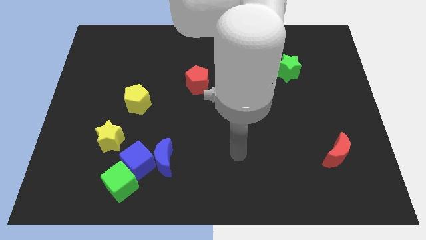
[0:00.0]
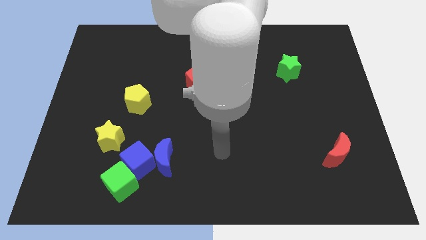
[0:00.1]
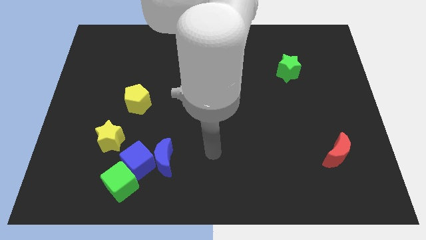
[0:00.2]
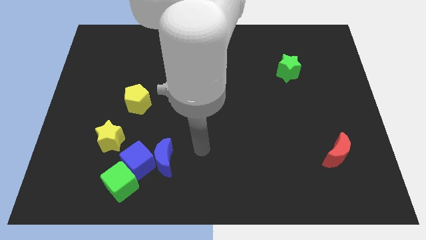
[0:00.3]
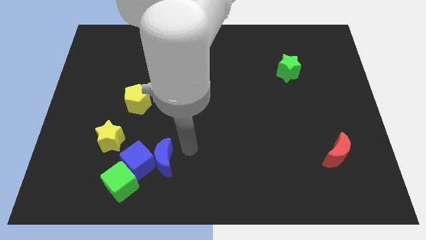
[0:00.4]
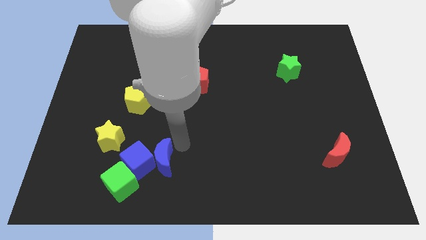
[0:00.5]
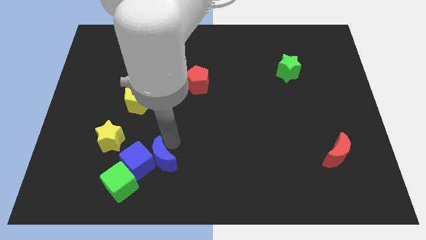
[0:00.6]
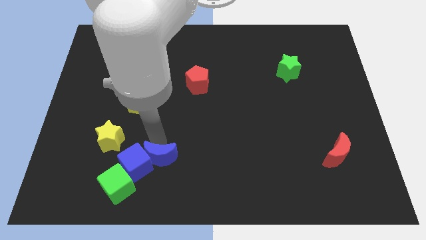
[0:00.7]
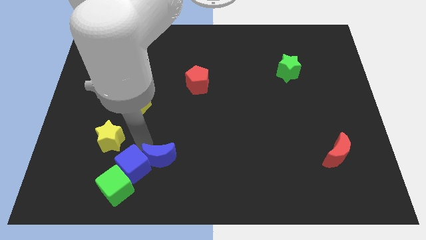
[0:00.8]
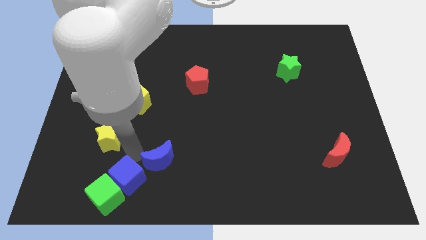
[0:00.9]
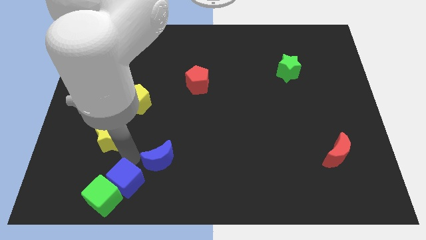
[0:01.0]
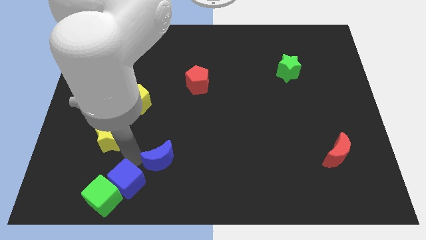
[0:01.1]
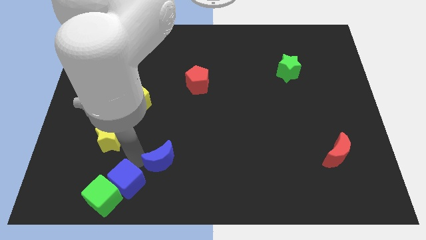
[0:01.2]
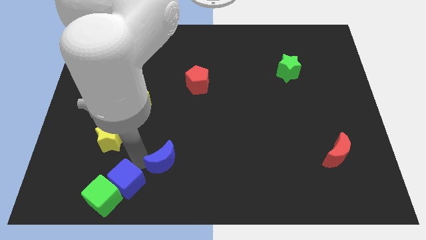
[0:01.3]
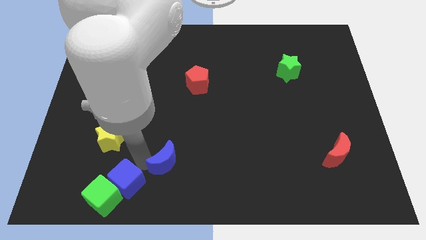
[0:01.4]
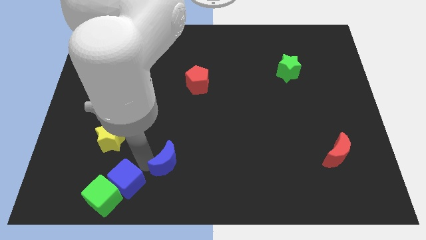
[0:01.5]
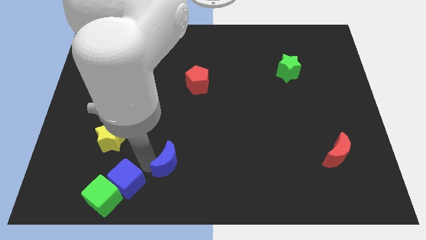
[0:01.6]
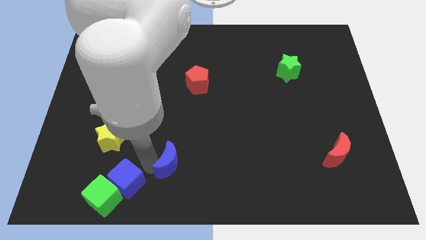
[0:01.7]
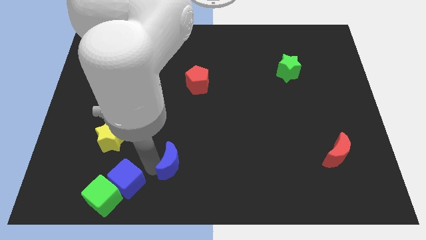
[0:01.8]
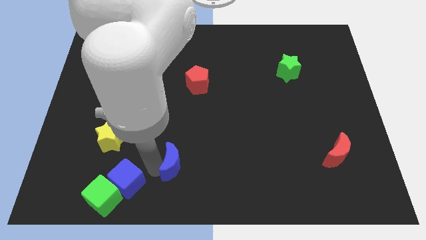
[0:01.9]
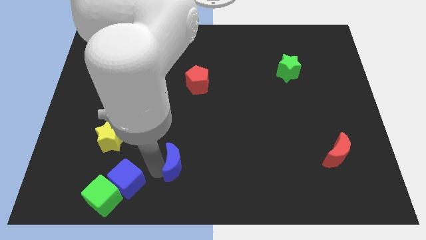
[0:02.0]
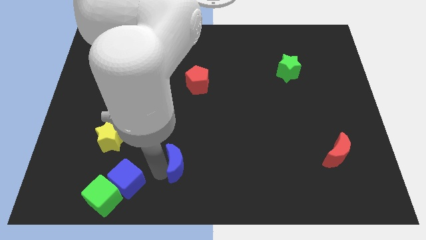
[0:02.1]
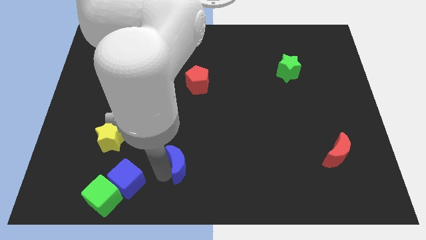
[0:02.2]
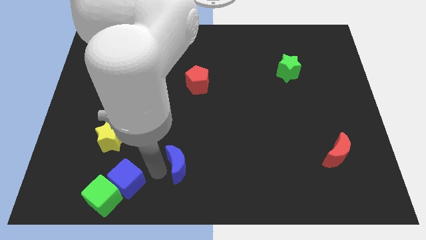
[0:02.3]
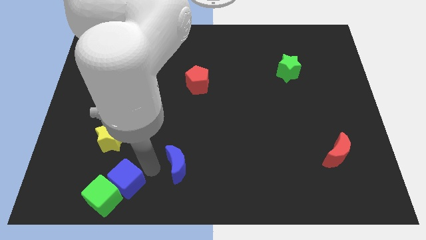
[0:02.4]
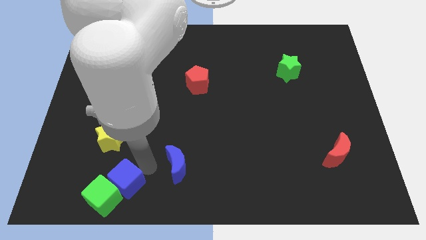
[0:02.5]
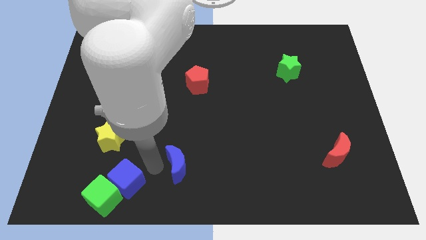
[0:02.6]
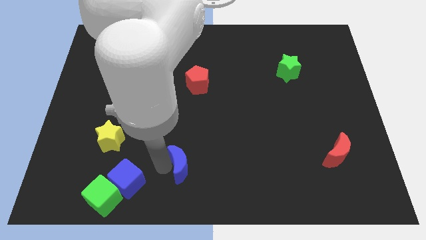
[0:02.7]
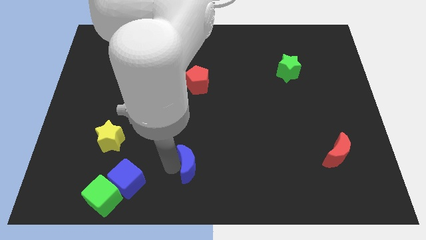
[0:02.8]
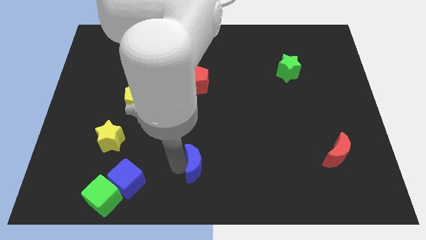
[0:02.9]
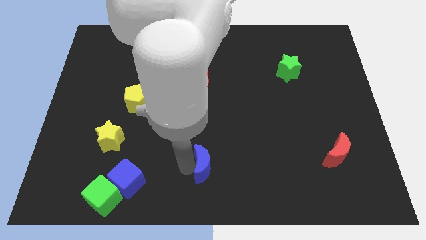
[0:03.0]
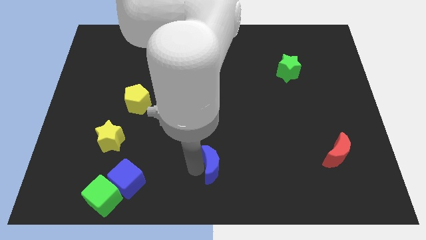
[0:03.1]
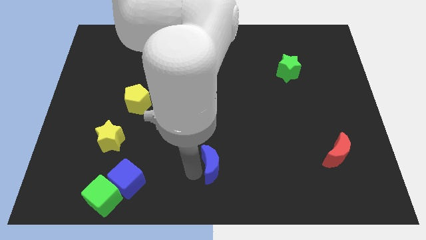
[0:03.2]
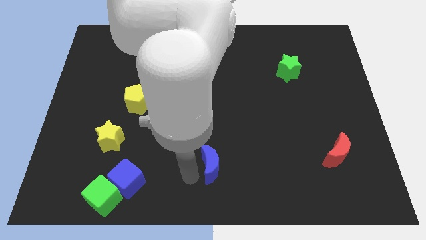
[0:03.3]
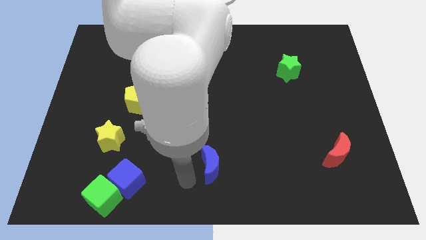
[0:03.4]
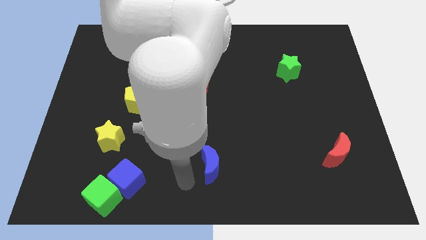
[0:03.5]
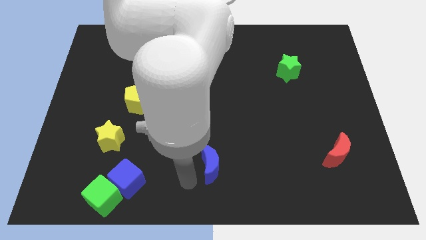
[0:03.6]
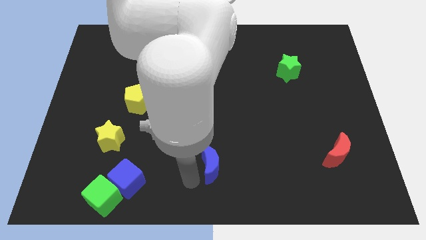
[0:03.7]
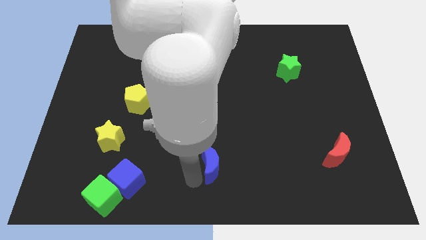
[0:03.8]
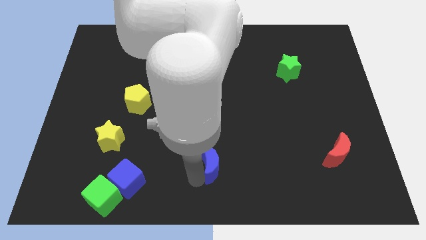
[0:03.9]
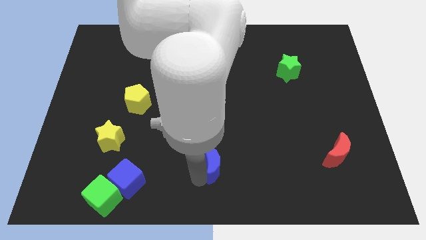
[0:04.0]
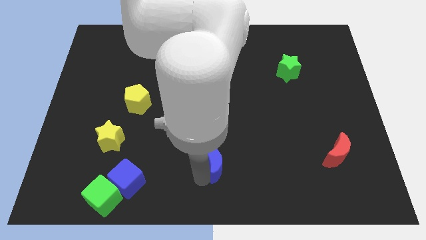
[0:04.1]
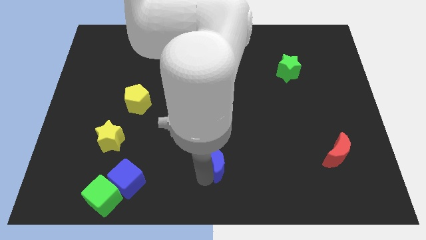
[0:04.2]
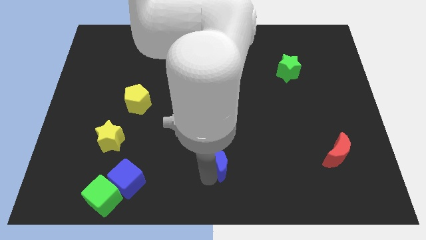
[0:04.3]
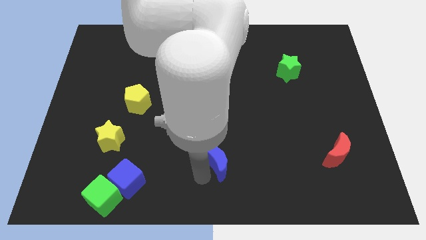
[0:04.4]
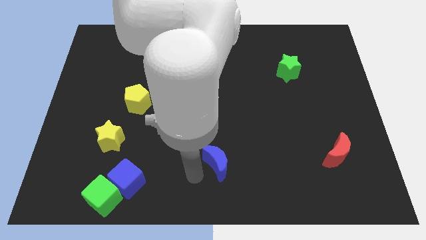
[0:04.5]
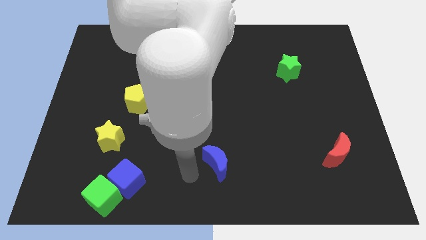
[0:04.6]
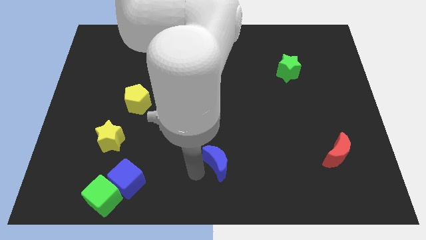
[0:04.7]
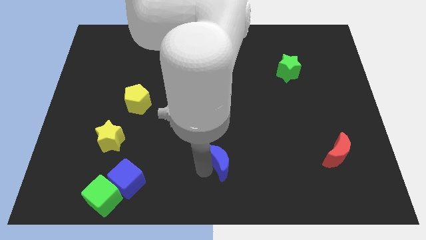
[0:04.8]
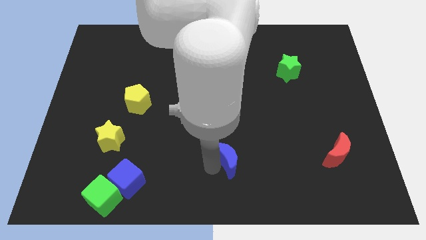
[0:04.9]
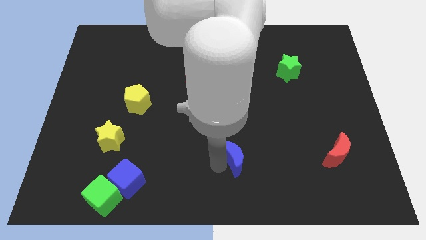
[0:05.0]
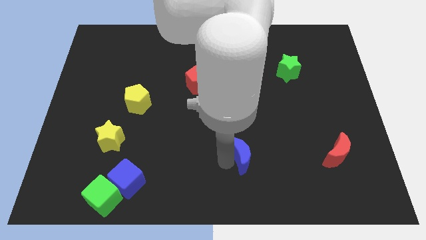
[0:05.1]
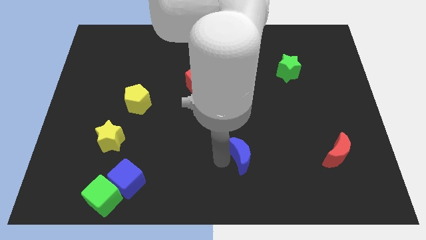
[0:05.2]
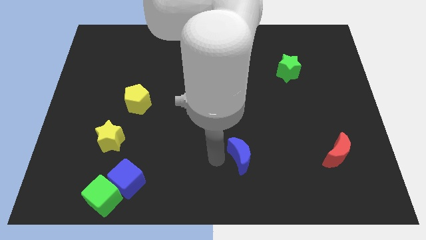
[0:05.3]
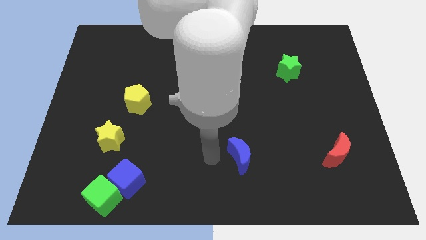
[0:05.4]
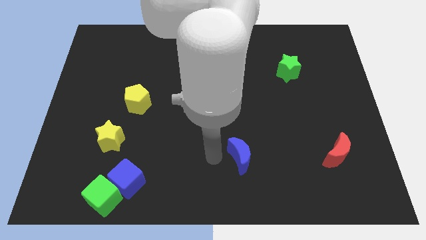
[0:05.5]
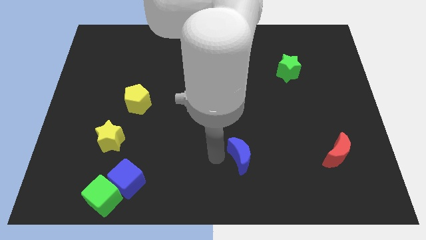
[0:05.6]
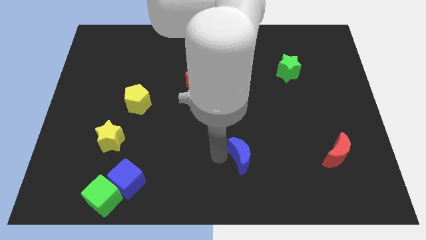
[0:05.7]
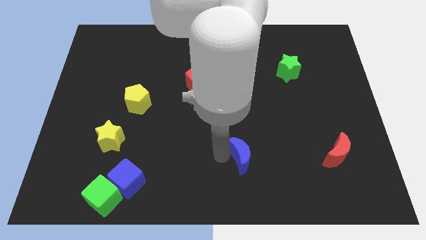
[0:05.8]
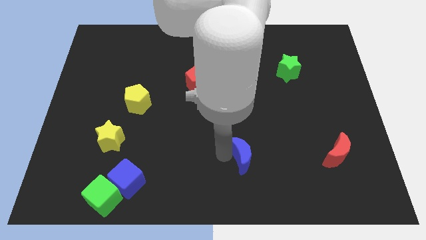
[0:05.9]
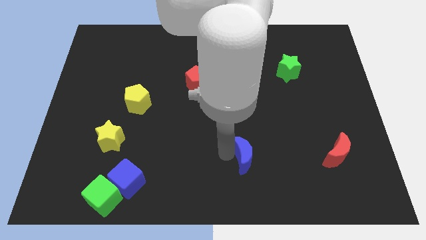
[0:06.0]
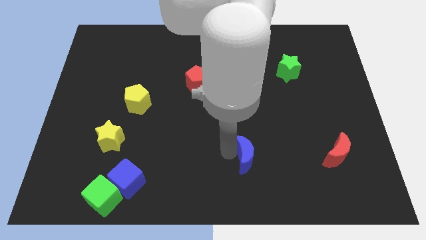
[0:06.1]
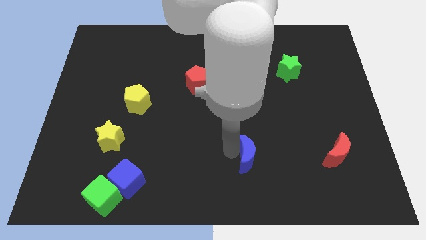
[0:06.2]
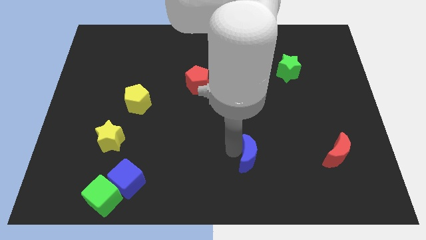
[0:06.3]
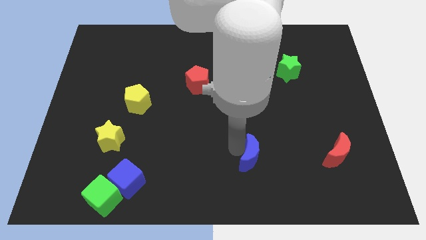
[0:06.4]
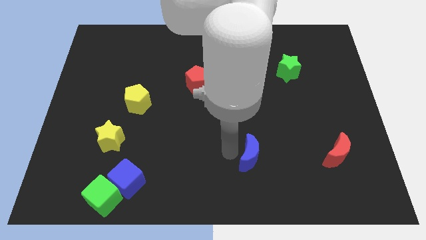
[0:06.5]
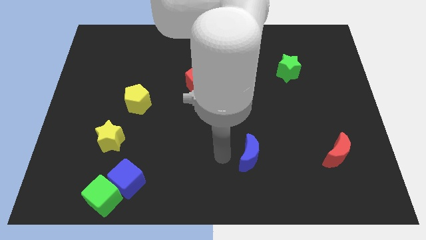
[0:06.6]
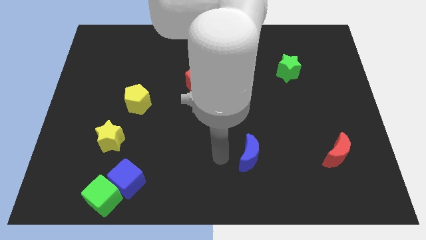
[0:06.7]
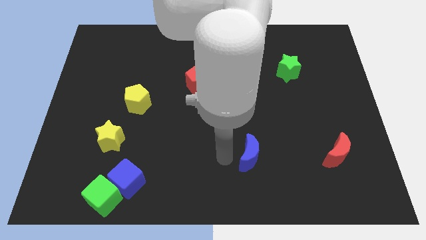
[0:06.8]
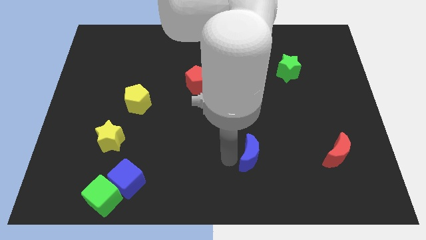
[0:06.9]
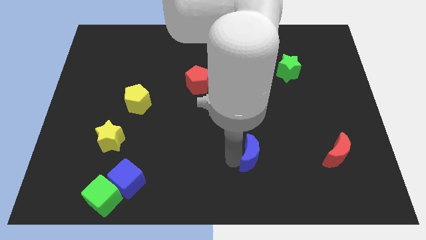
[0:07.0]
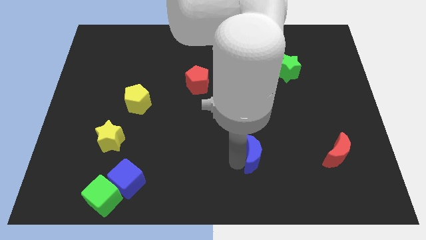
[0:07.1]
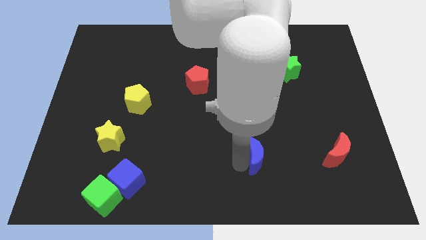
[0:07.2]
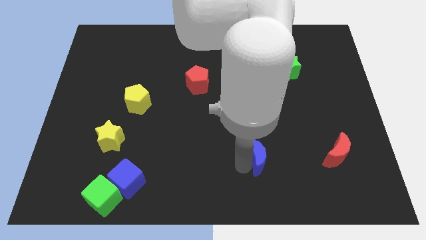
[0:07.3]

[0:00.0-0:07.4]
move the blue moon to the right

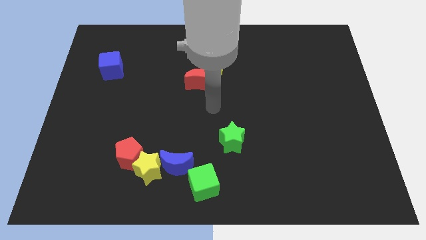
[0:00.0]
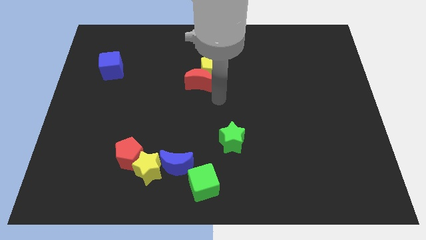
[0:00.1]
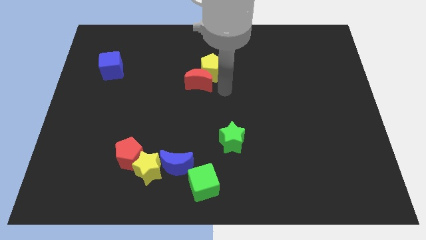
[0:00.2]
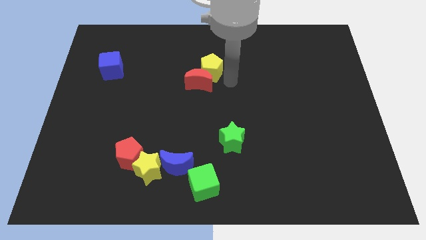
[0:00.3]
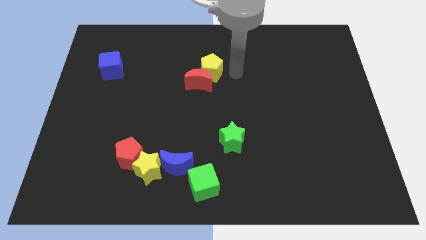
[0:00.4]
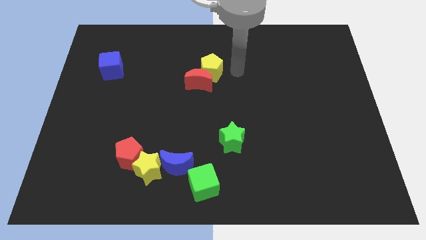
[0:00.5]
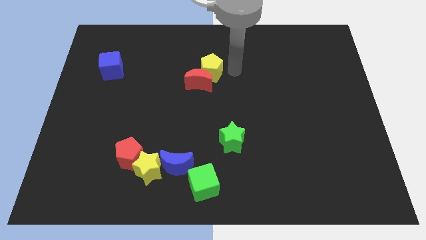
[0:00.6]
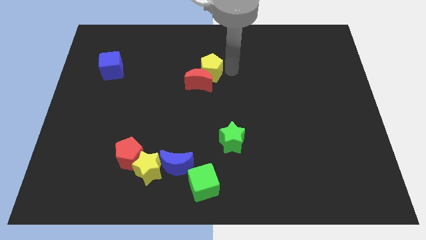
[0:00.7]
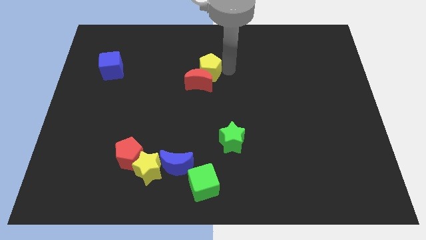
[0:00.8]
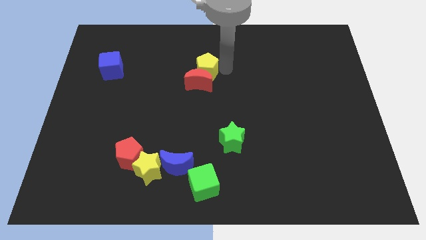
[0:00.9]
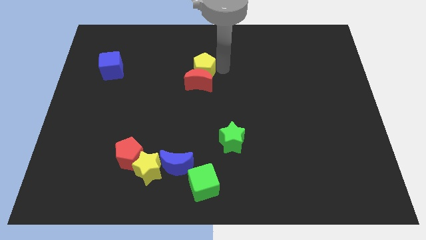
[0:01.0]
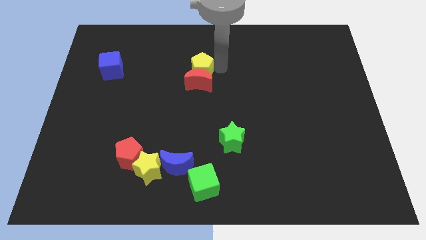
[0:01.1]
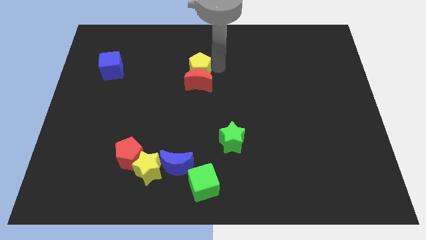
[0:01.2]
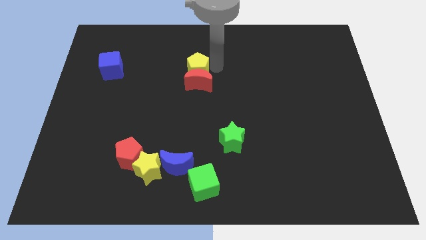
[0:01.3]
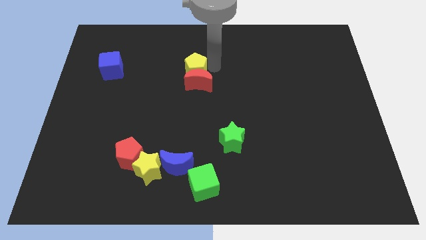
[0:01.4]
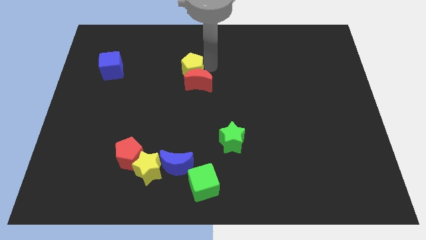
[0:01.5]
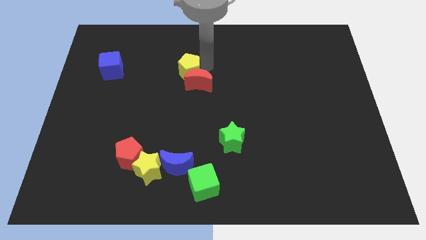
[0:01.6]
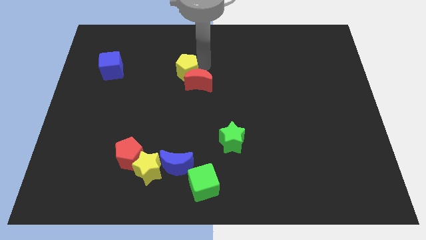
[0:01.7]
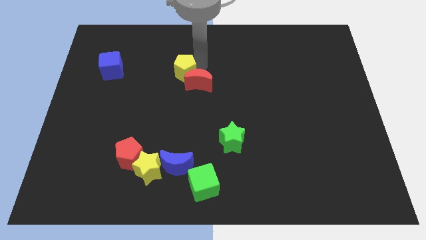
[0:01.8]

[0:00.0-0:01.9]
slightly slide the yellow pentagon left
